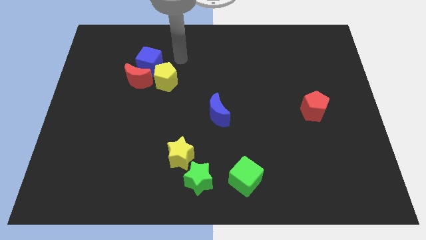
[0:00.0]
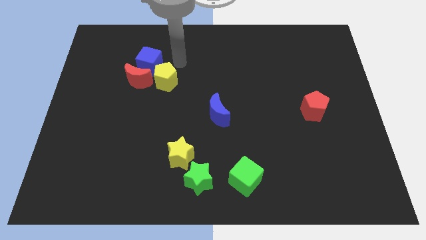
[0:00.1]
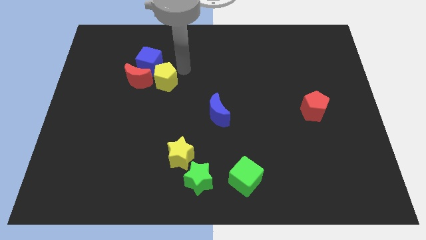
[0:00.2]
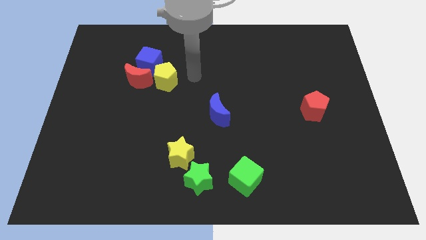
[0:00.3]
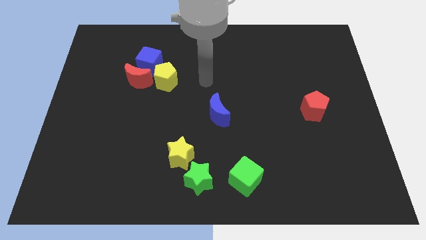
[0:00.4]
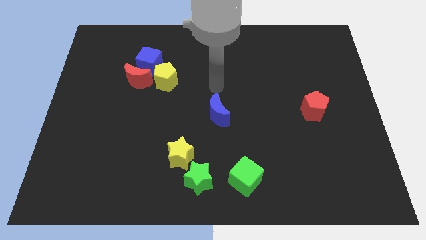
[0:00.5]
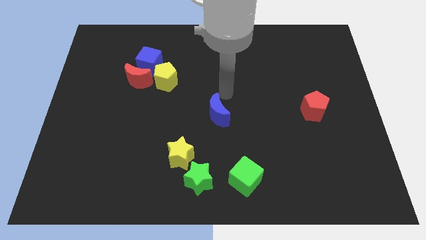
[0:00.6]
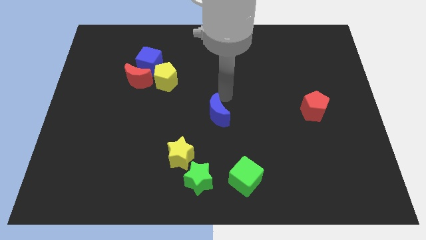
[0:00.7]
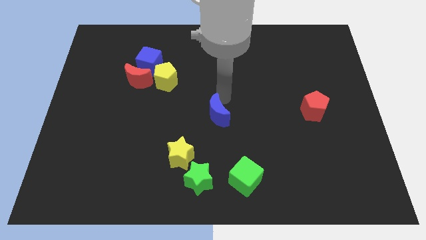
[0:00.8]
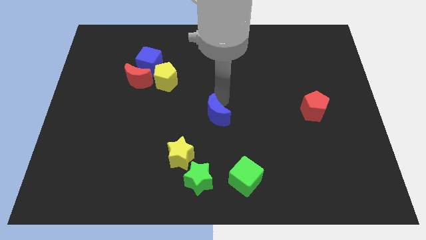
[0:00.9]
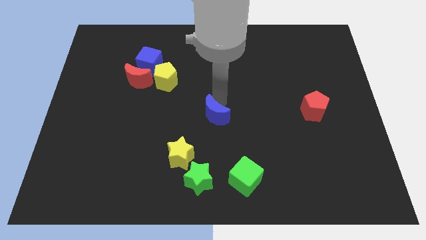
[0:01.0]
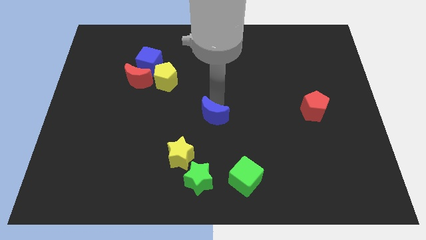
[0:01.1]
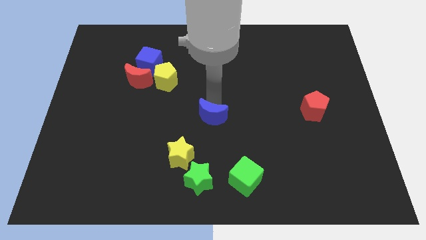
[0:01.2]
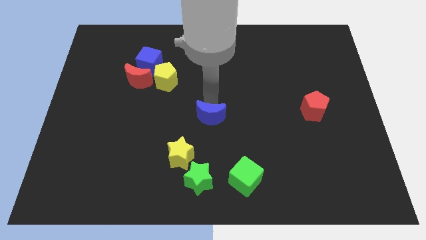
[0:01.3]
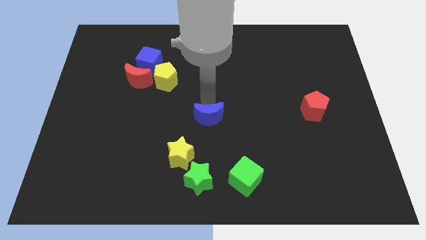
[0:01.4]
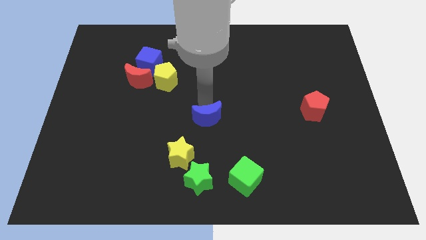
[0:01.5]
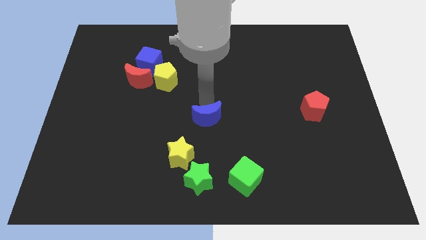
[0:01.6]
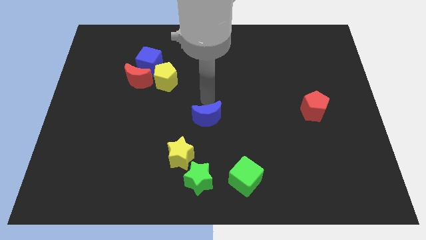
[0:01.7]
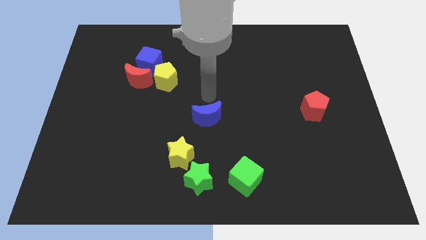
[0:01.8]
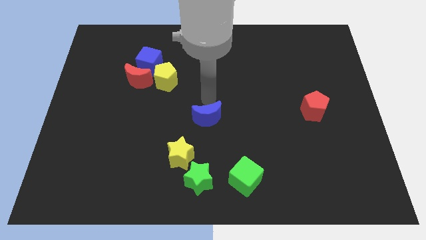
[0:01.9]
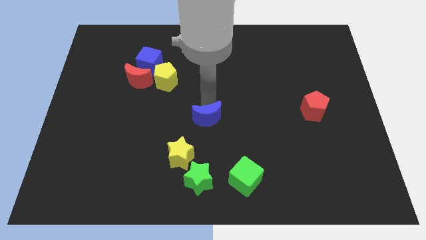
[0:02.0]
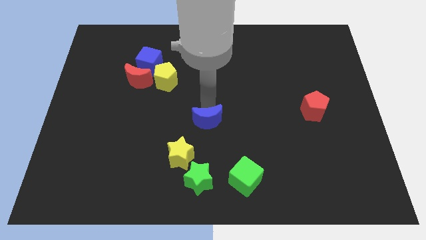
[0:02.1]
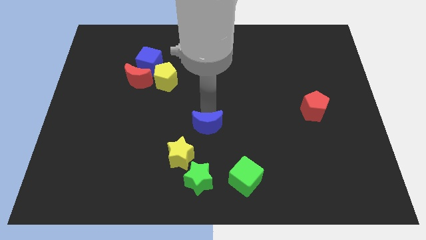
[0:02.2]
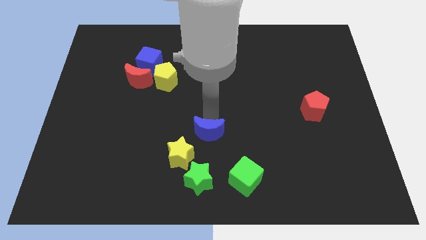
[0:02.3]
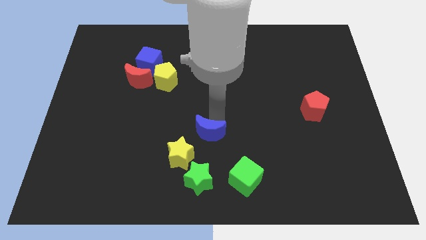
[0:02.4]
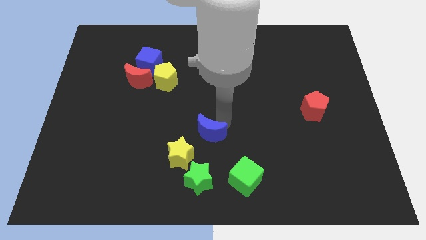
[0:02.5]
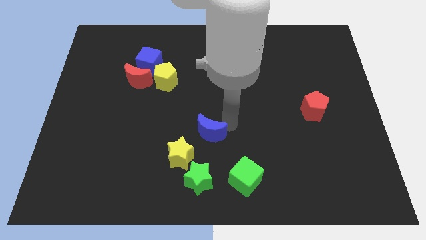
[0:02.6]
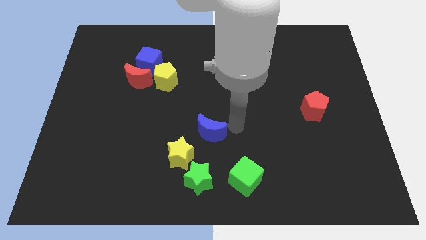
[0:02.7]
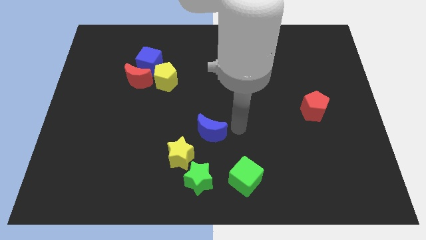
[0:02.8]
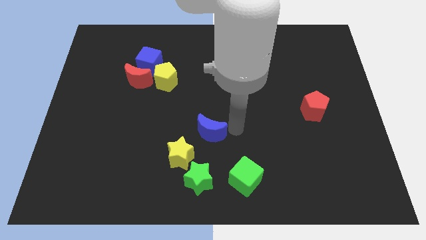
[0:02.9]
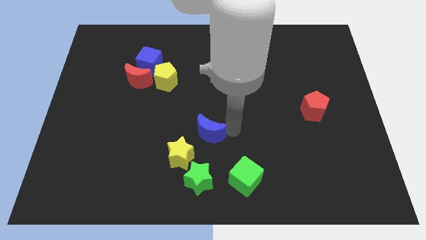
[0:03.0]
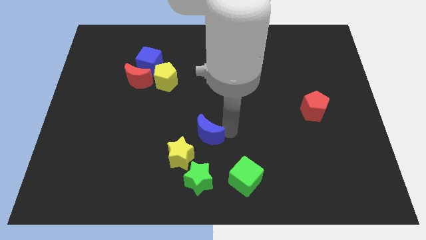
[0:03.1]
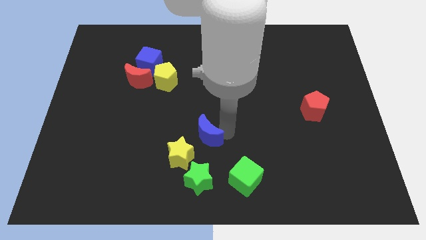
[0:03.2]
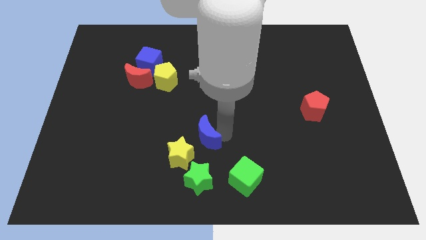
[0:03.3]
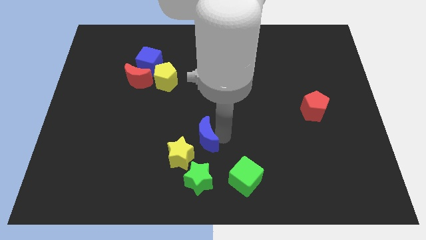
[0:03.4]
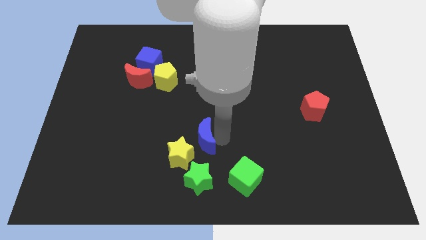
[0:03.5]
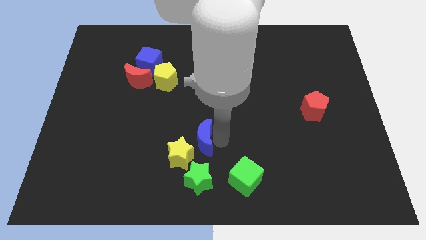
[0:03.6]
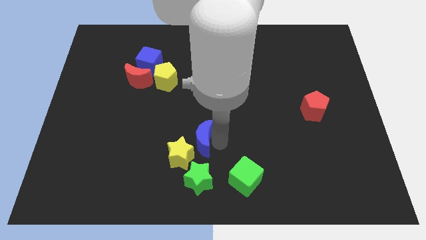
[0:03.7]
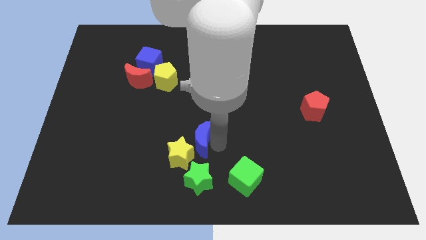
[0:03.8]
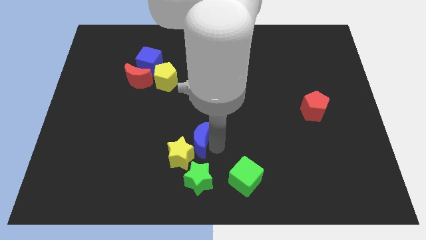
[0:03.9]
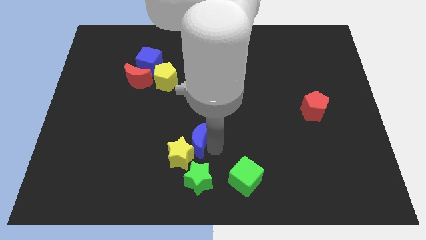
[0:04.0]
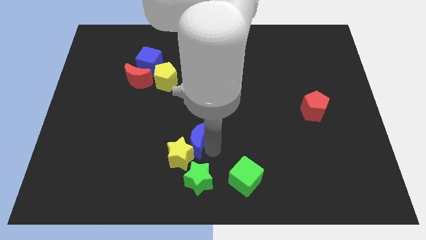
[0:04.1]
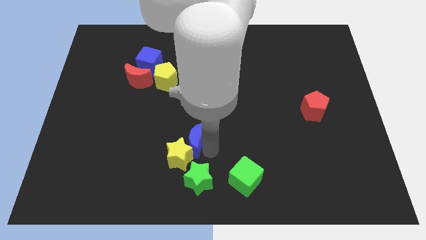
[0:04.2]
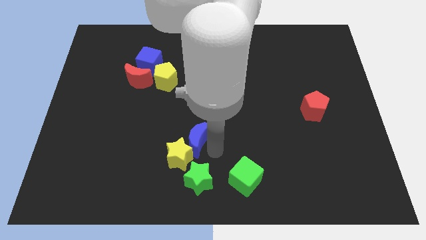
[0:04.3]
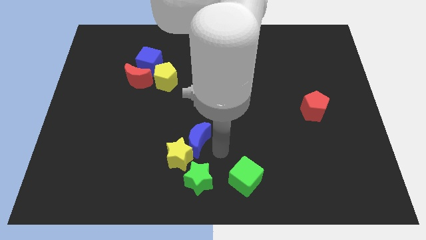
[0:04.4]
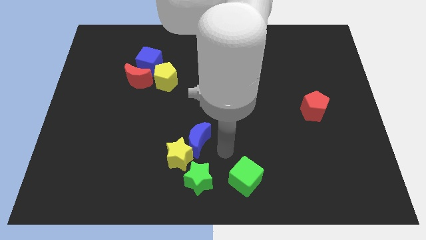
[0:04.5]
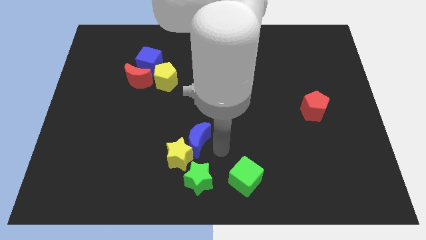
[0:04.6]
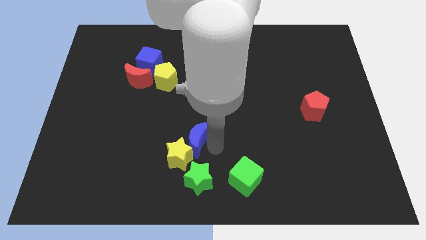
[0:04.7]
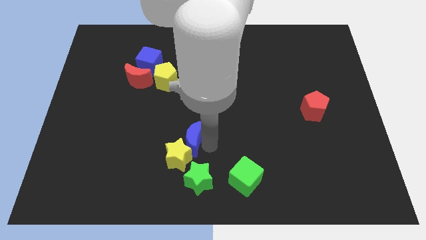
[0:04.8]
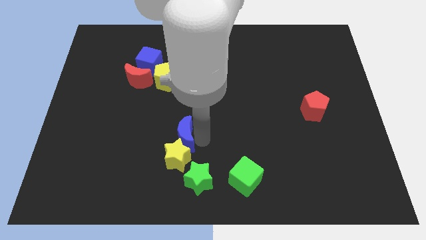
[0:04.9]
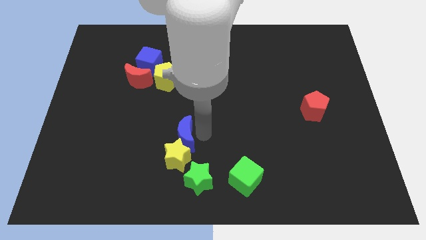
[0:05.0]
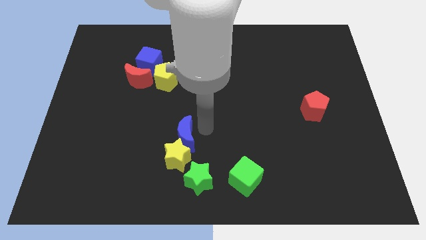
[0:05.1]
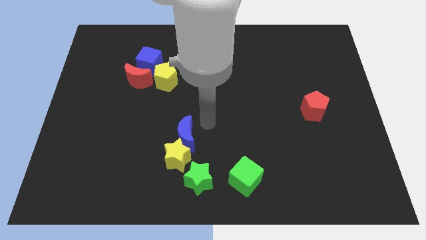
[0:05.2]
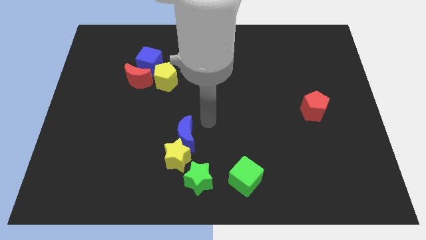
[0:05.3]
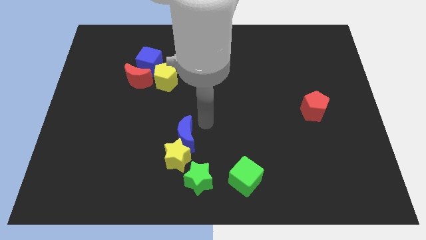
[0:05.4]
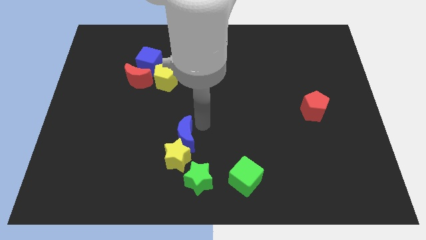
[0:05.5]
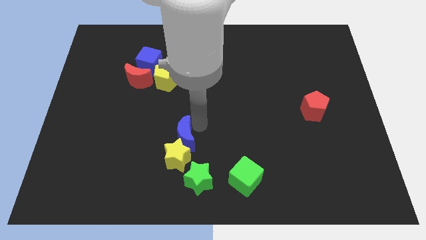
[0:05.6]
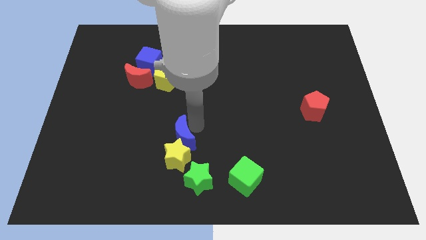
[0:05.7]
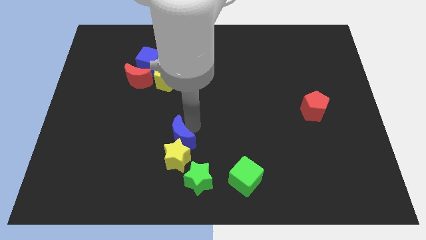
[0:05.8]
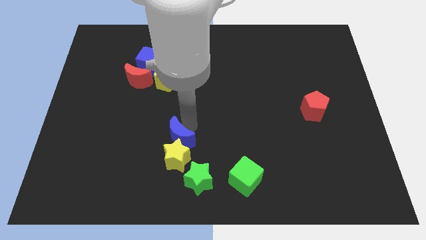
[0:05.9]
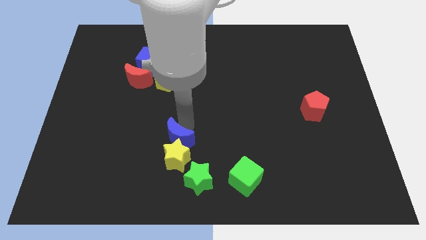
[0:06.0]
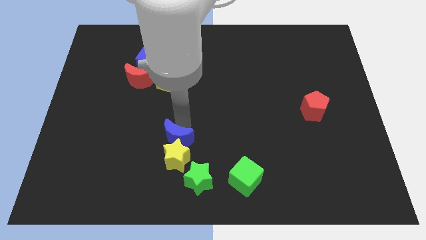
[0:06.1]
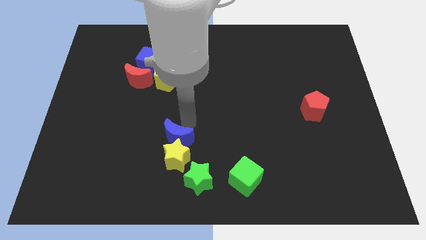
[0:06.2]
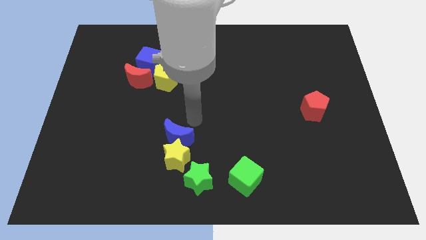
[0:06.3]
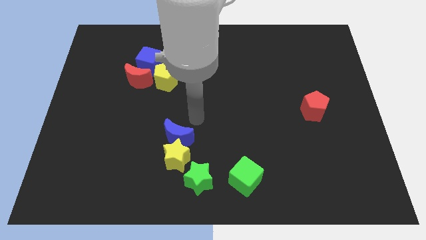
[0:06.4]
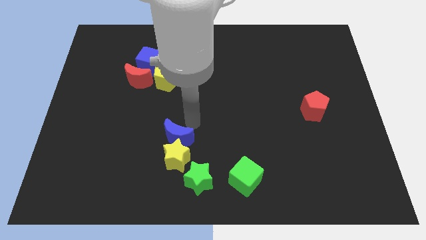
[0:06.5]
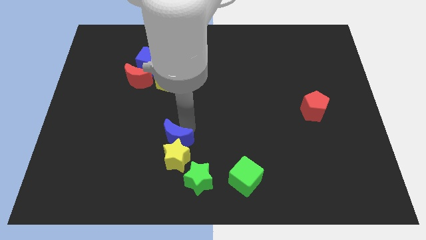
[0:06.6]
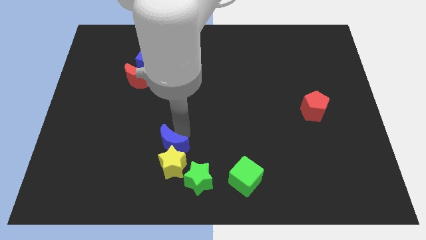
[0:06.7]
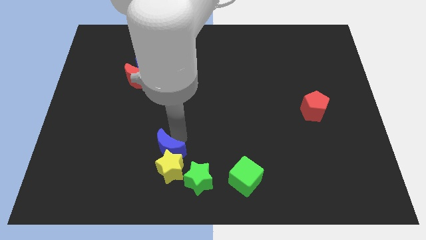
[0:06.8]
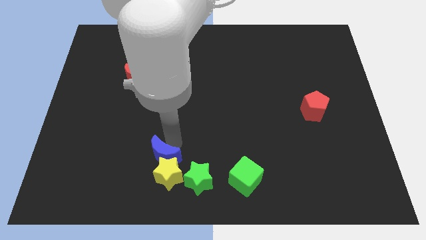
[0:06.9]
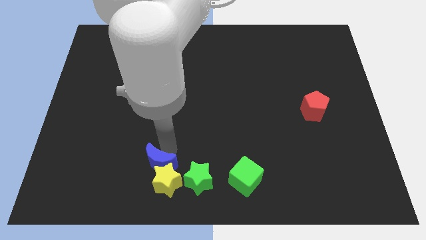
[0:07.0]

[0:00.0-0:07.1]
move the blue moon to the left of the green star

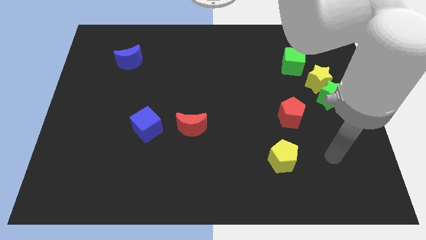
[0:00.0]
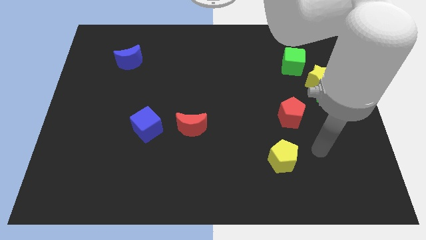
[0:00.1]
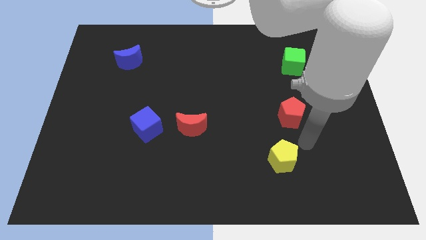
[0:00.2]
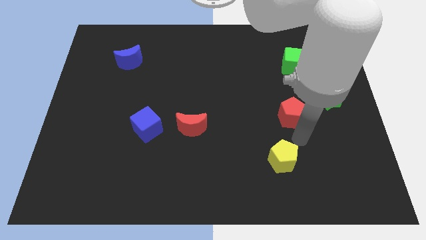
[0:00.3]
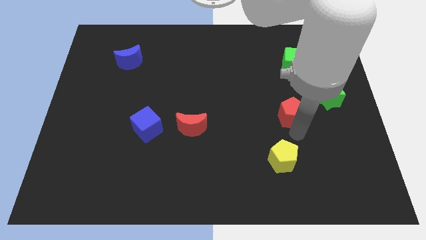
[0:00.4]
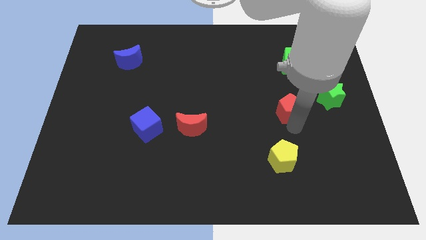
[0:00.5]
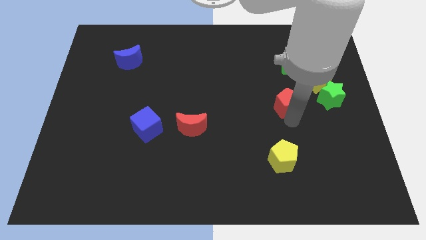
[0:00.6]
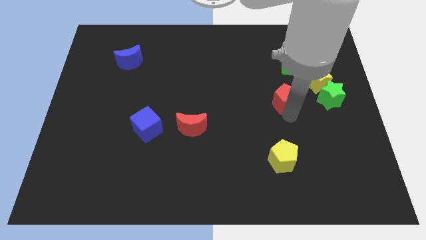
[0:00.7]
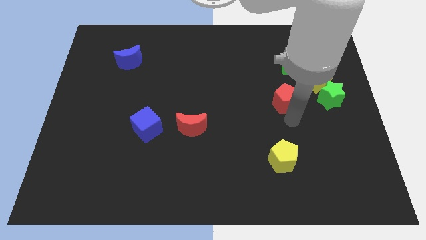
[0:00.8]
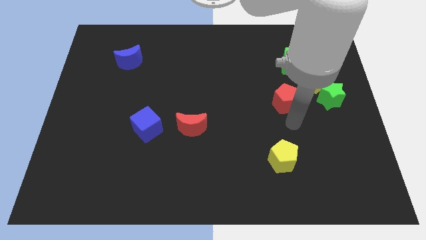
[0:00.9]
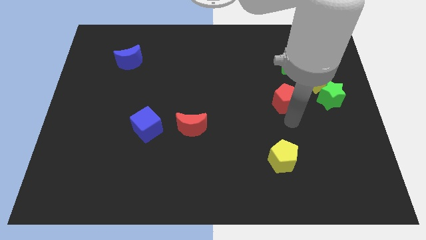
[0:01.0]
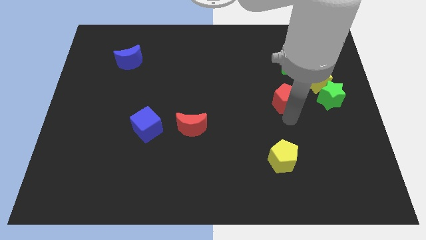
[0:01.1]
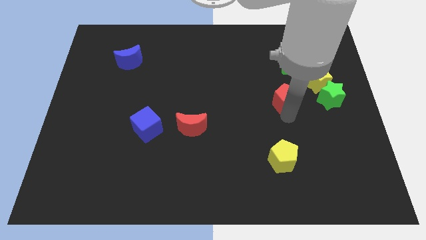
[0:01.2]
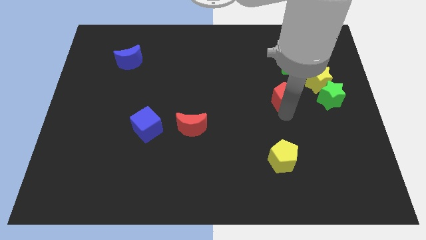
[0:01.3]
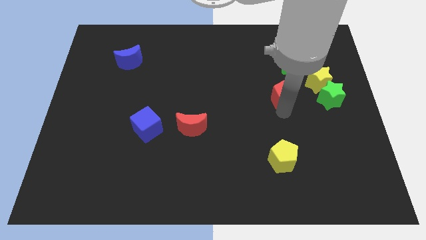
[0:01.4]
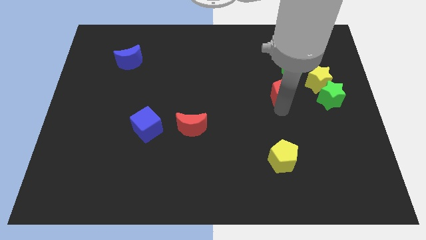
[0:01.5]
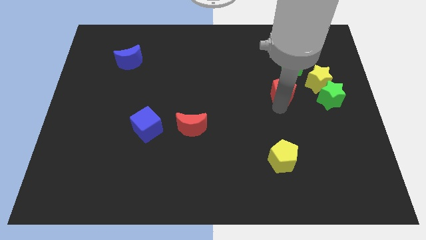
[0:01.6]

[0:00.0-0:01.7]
put the red pentagon diagonally down and to the left of the green cube
